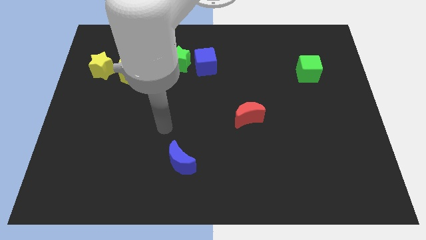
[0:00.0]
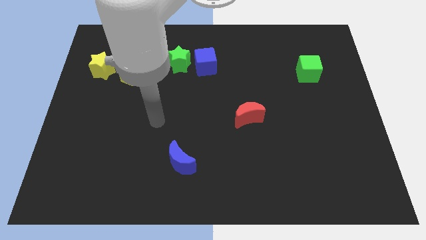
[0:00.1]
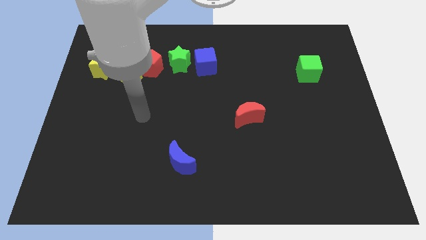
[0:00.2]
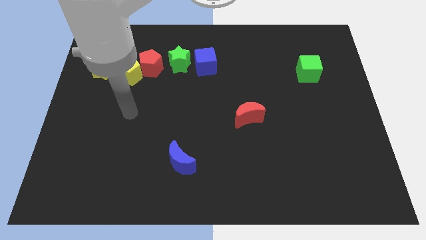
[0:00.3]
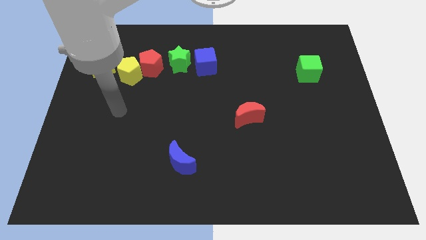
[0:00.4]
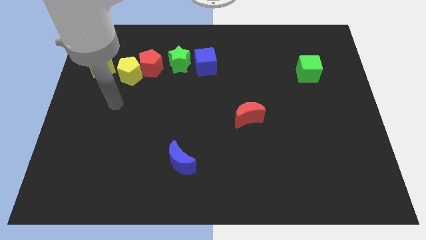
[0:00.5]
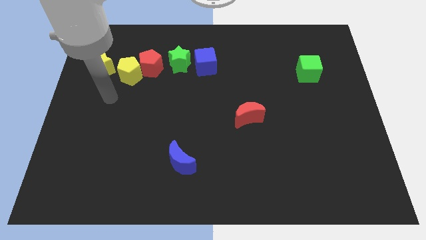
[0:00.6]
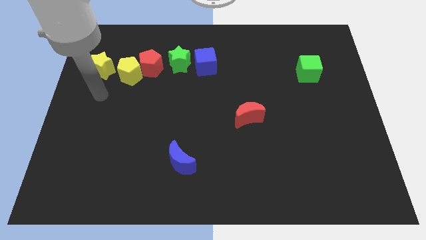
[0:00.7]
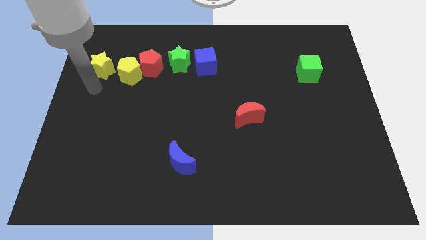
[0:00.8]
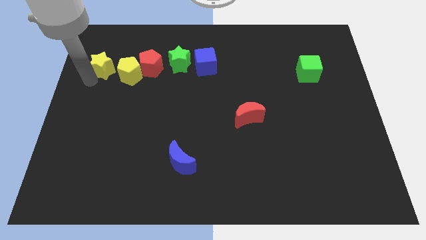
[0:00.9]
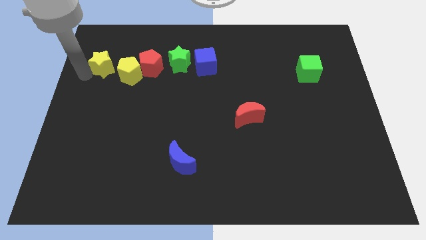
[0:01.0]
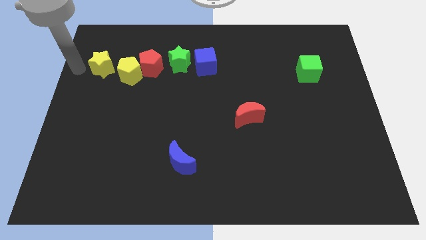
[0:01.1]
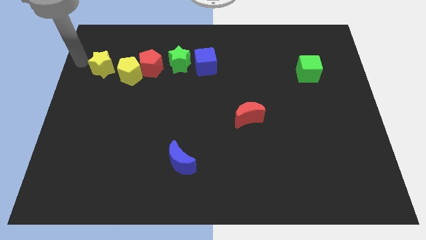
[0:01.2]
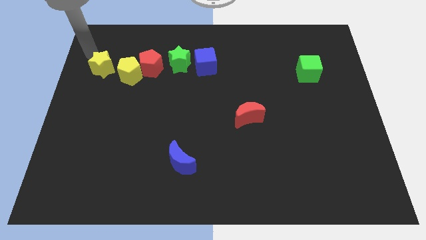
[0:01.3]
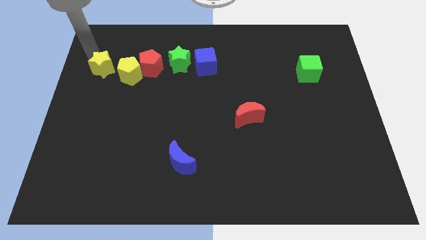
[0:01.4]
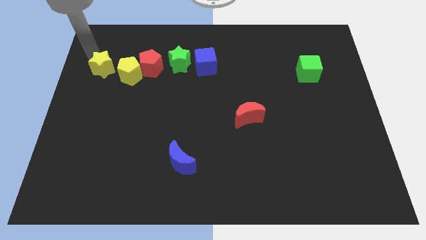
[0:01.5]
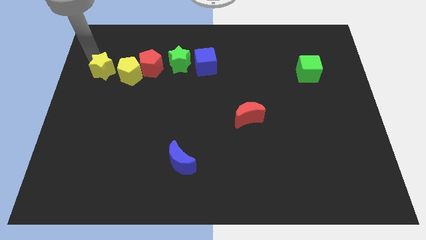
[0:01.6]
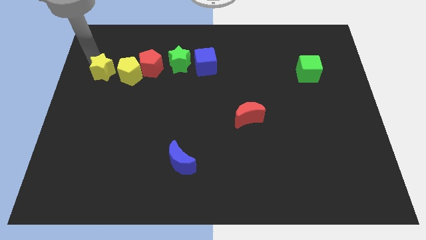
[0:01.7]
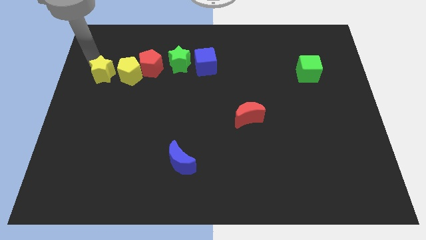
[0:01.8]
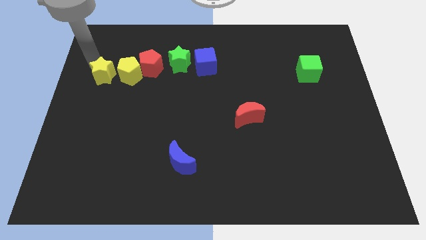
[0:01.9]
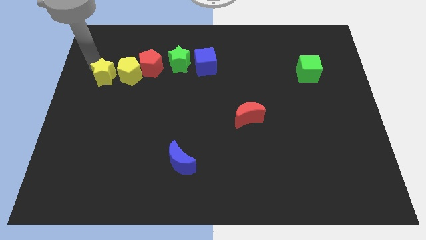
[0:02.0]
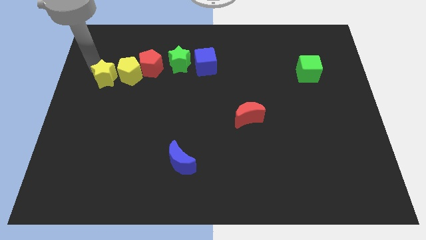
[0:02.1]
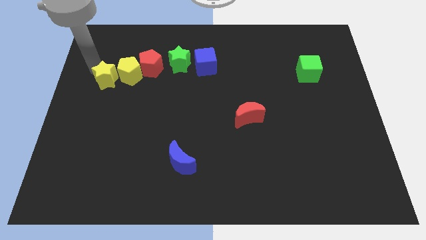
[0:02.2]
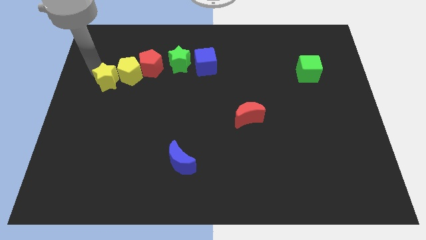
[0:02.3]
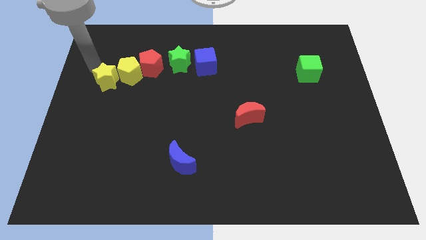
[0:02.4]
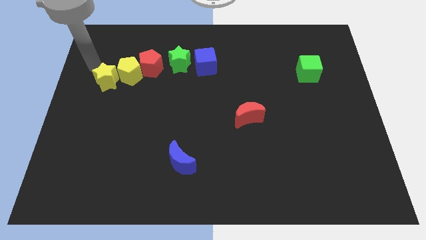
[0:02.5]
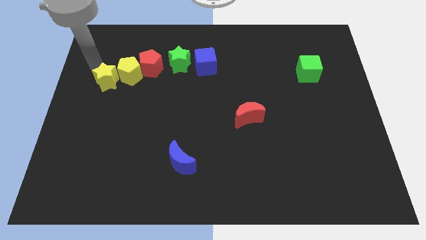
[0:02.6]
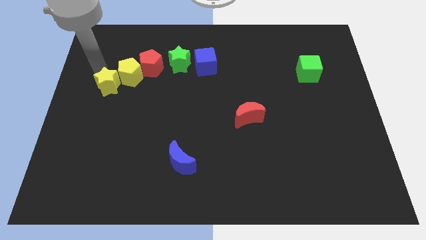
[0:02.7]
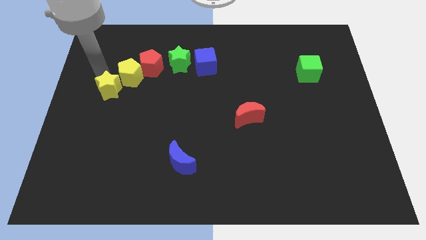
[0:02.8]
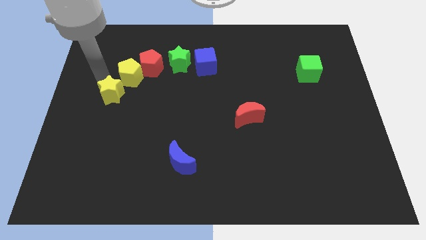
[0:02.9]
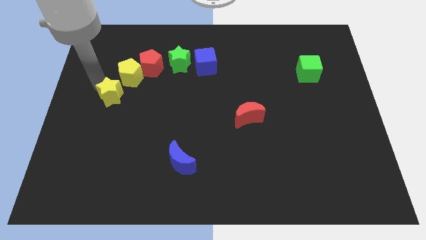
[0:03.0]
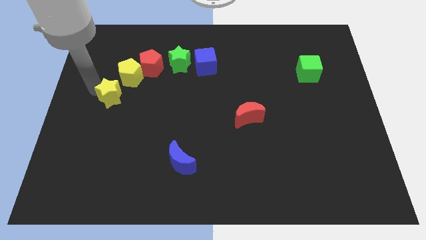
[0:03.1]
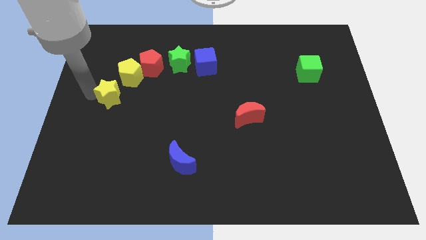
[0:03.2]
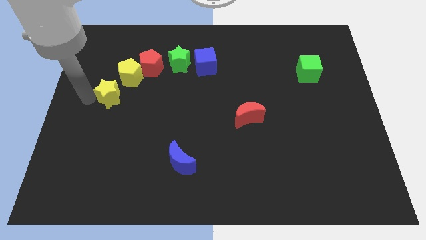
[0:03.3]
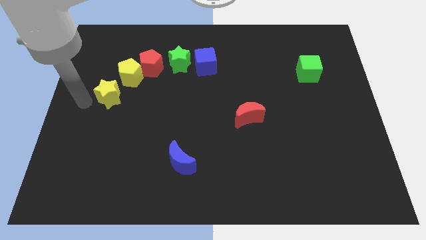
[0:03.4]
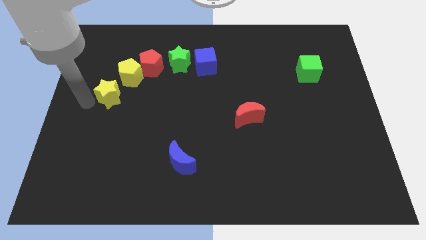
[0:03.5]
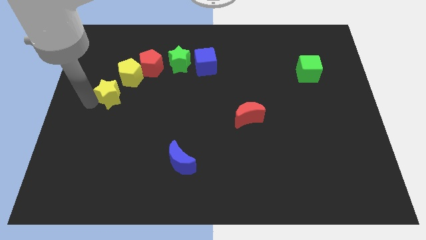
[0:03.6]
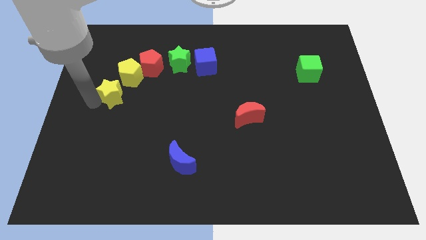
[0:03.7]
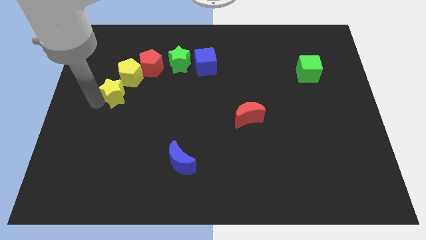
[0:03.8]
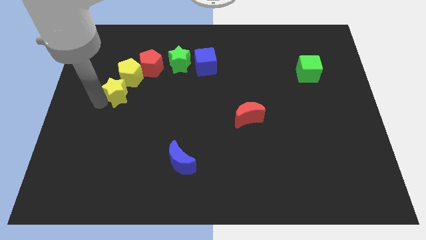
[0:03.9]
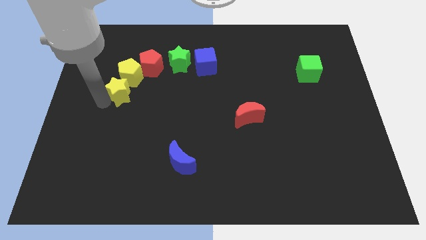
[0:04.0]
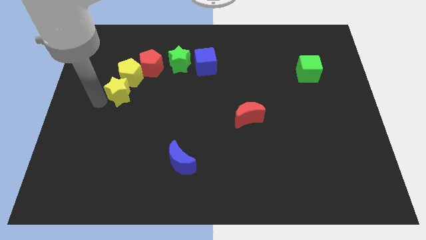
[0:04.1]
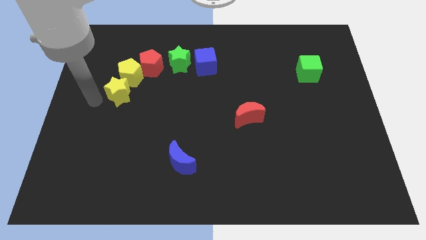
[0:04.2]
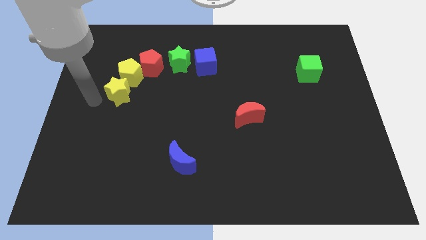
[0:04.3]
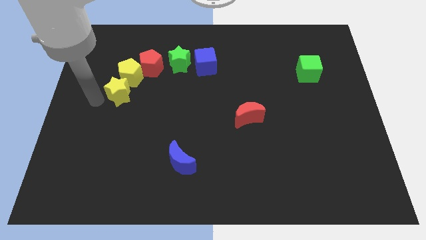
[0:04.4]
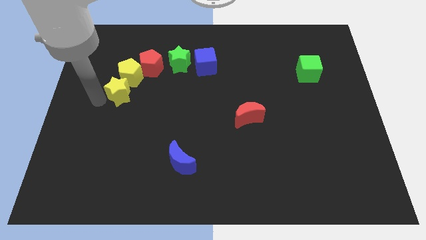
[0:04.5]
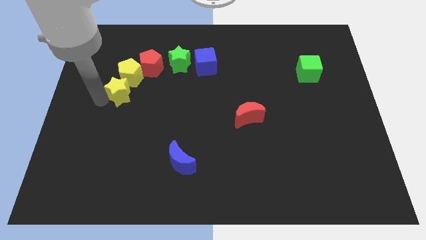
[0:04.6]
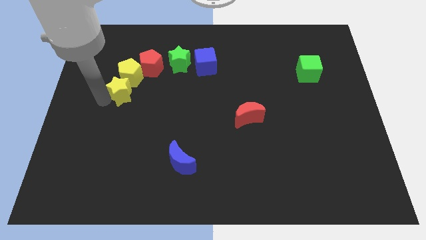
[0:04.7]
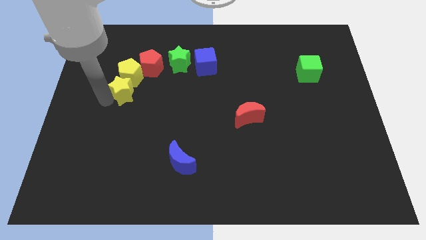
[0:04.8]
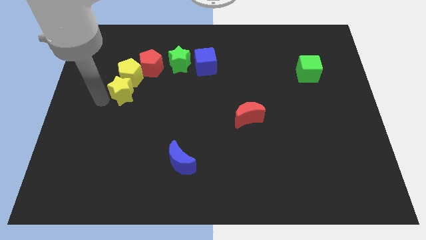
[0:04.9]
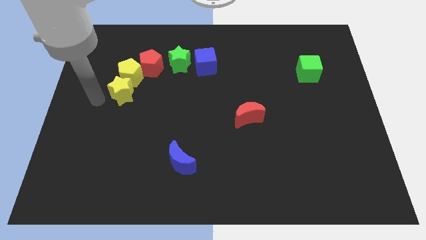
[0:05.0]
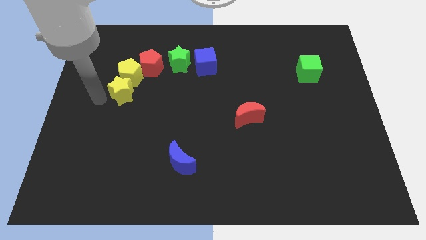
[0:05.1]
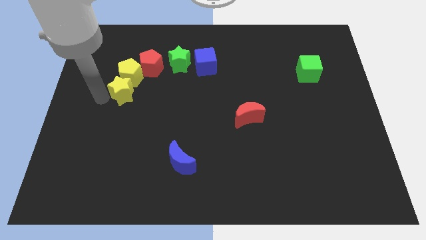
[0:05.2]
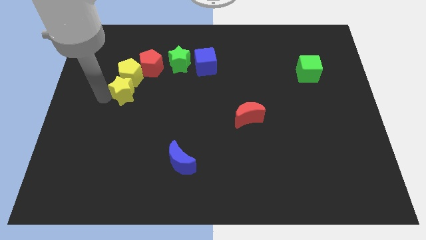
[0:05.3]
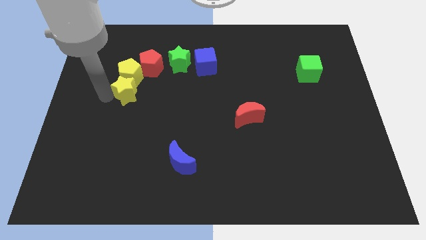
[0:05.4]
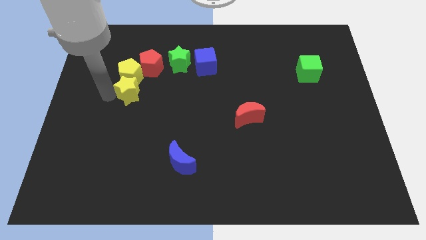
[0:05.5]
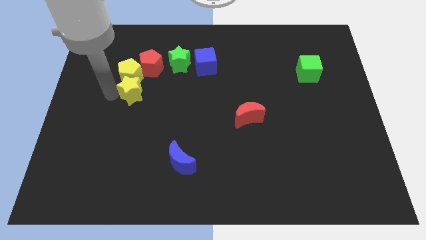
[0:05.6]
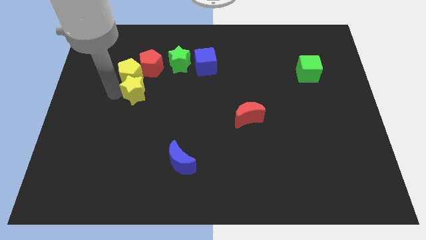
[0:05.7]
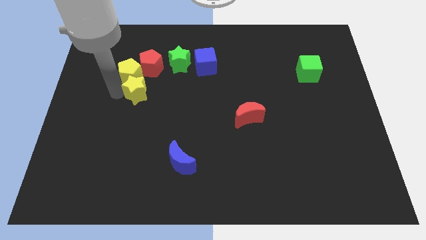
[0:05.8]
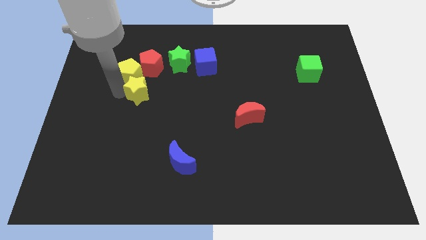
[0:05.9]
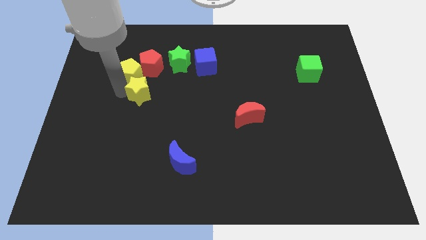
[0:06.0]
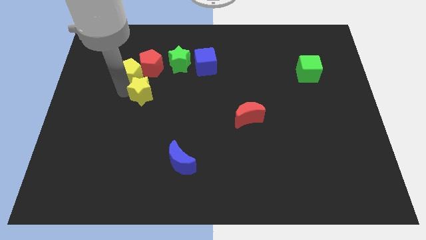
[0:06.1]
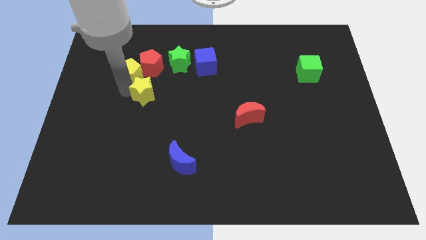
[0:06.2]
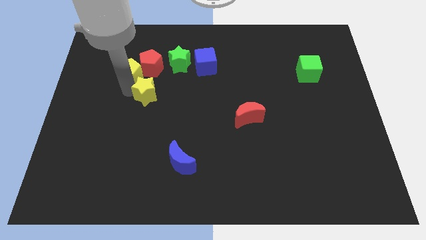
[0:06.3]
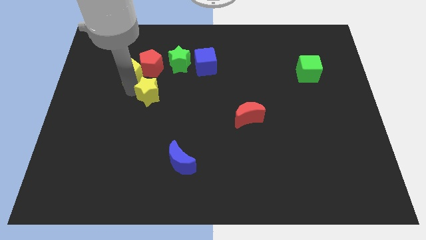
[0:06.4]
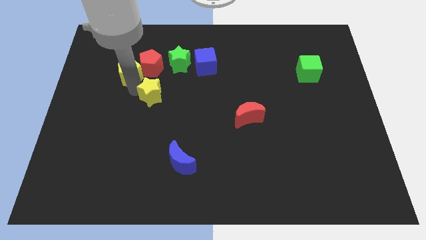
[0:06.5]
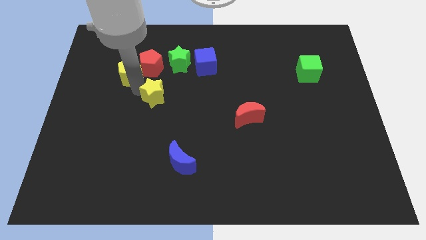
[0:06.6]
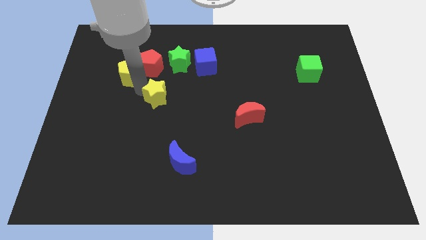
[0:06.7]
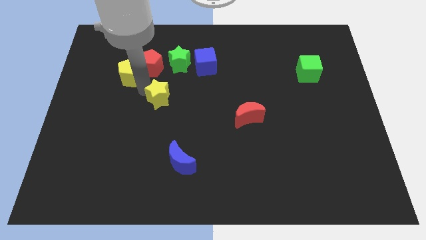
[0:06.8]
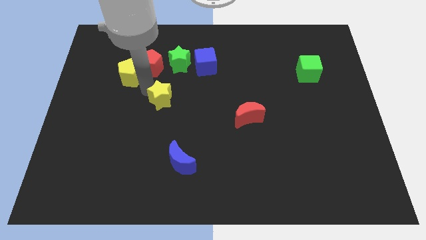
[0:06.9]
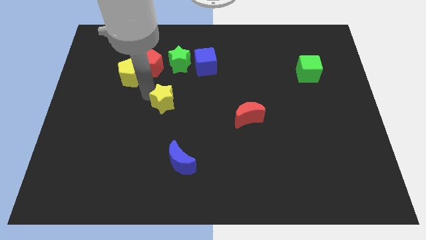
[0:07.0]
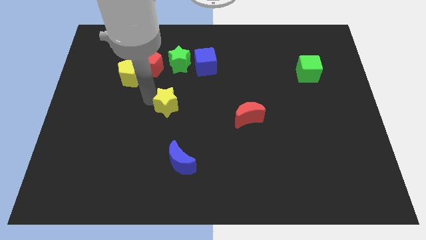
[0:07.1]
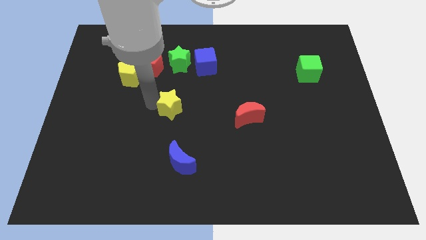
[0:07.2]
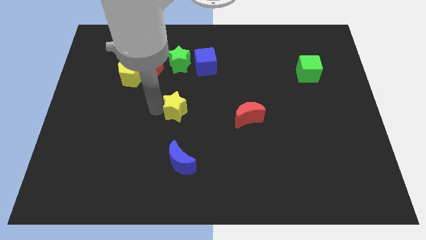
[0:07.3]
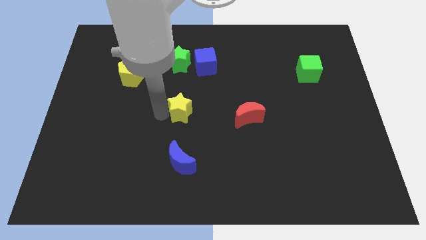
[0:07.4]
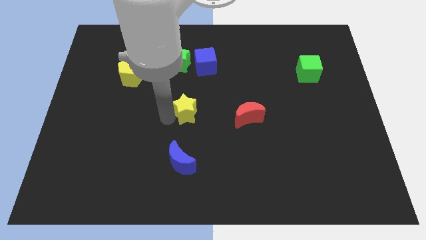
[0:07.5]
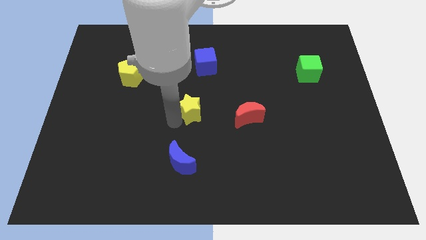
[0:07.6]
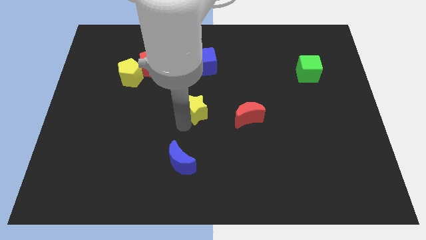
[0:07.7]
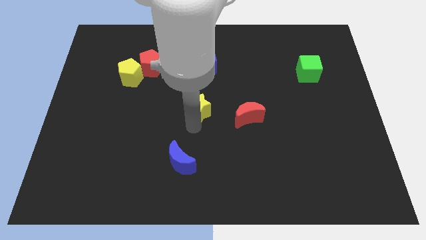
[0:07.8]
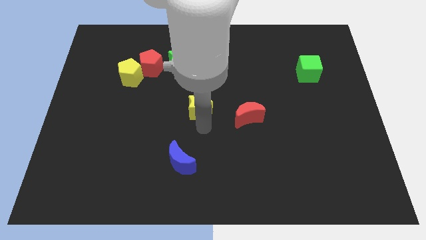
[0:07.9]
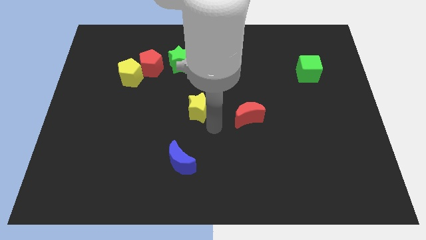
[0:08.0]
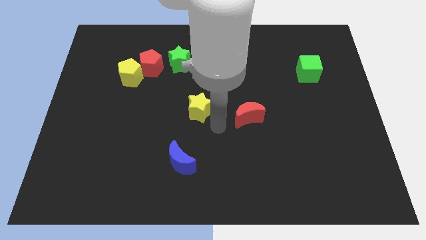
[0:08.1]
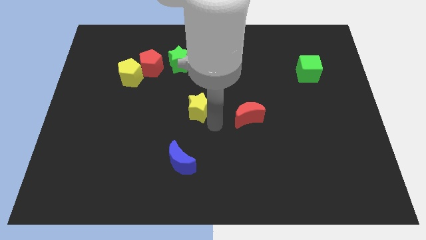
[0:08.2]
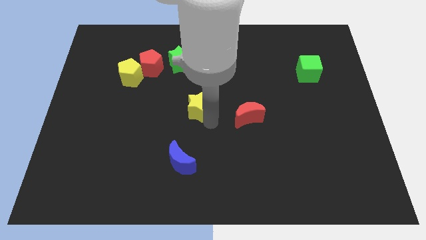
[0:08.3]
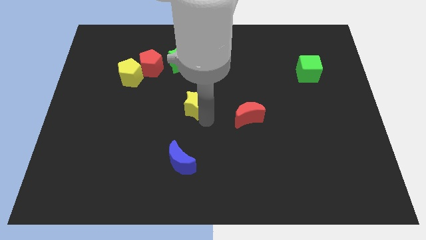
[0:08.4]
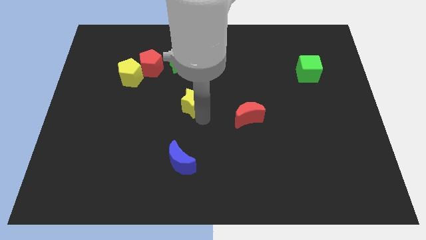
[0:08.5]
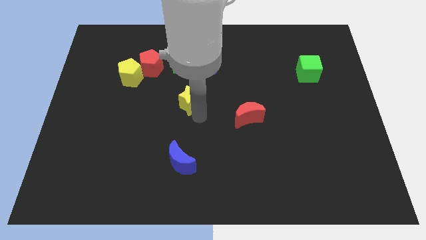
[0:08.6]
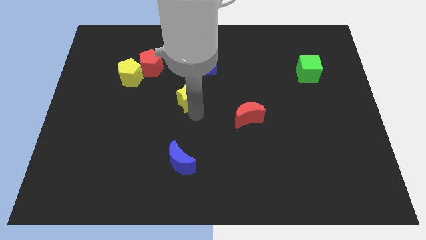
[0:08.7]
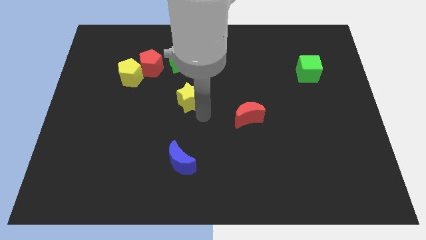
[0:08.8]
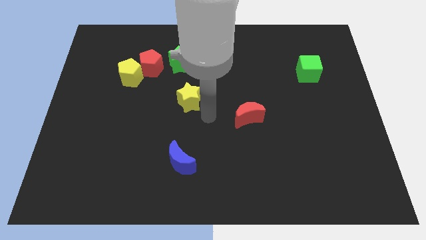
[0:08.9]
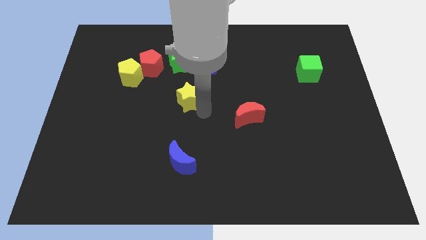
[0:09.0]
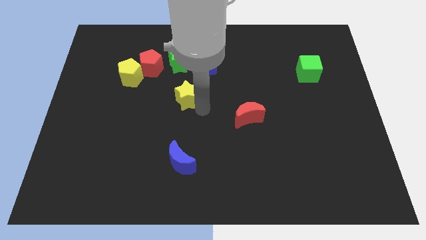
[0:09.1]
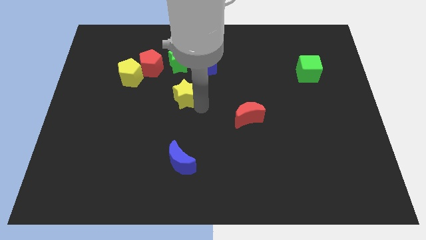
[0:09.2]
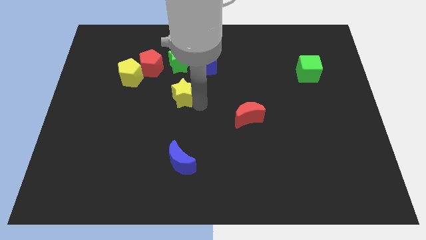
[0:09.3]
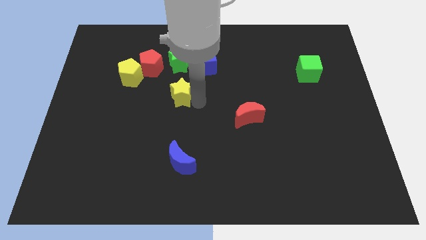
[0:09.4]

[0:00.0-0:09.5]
push the yellow star to the bottom right side of the red pentagon
